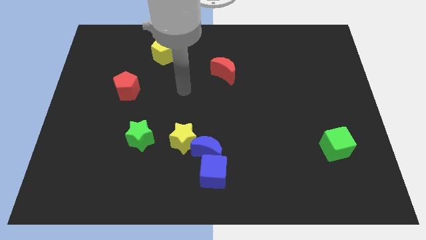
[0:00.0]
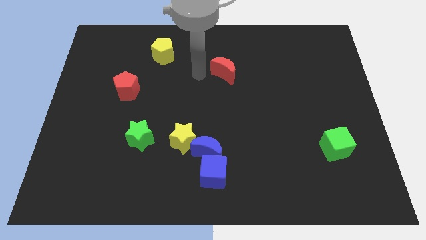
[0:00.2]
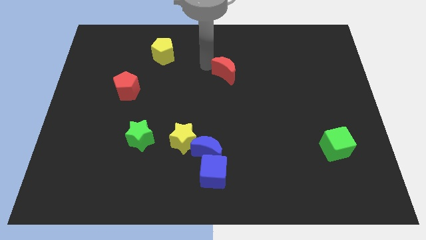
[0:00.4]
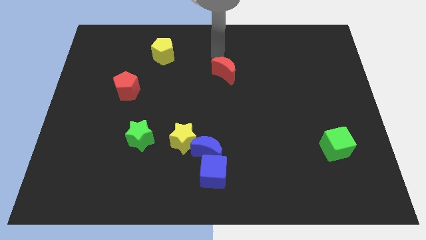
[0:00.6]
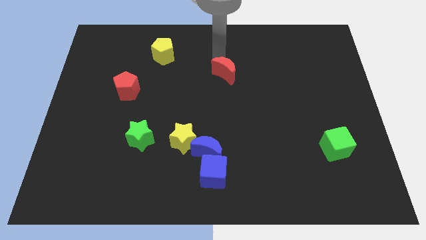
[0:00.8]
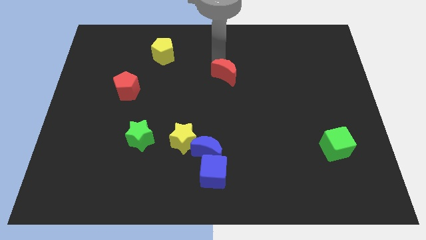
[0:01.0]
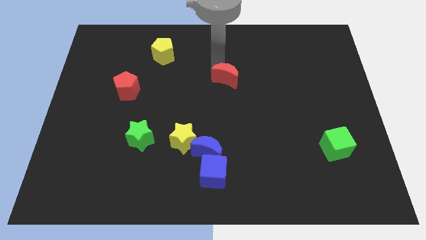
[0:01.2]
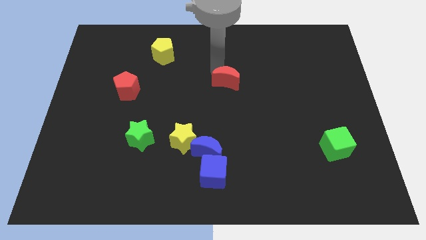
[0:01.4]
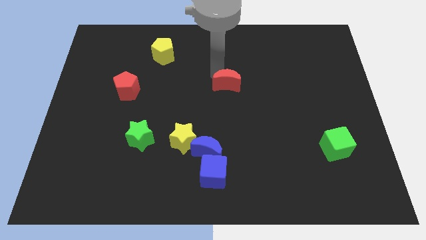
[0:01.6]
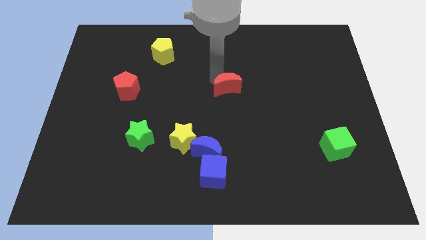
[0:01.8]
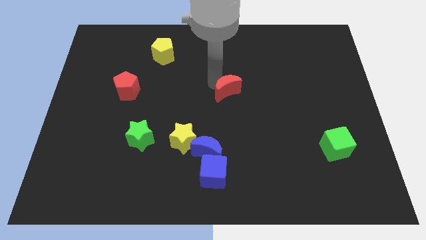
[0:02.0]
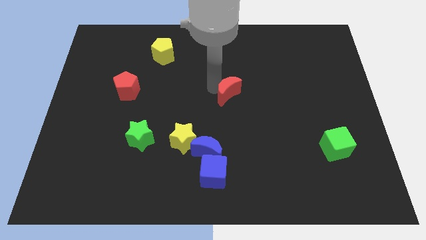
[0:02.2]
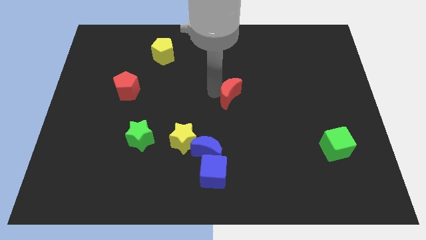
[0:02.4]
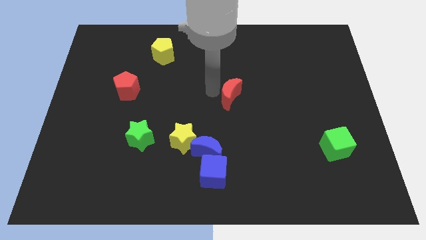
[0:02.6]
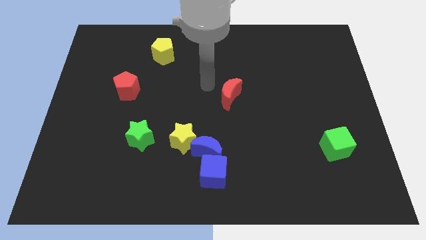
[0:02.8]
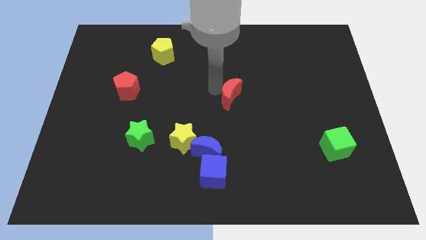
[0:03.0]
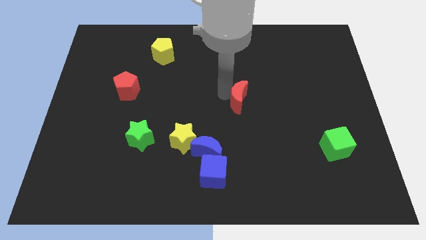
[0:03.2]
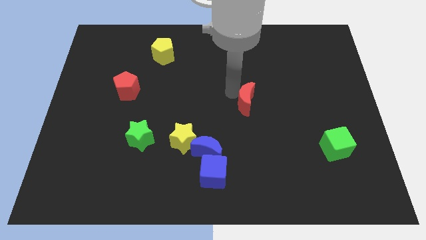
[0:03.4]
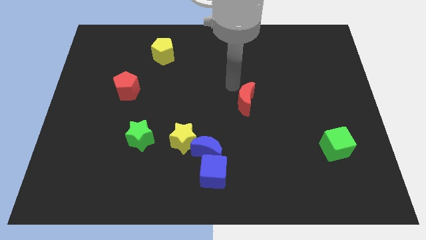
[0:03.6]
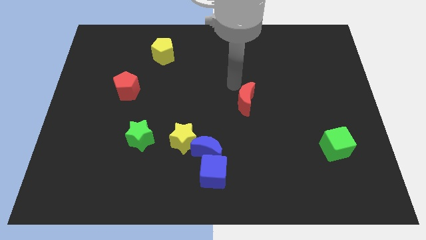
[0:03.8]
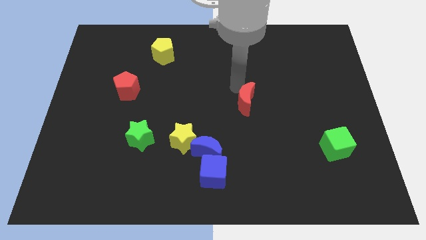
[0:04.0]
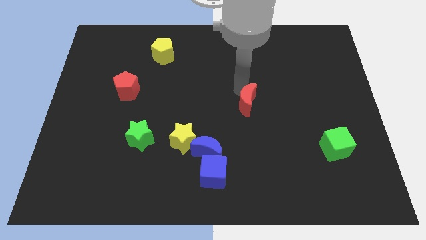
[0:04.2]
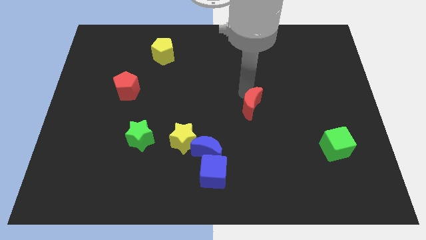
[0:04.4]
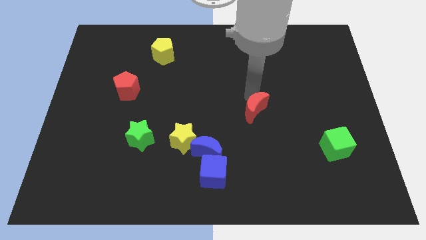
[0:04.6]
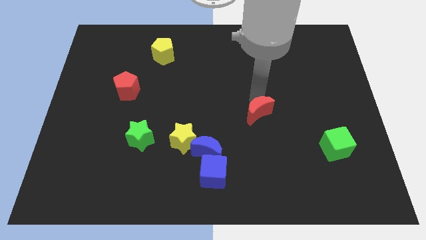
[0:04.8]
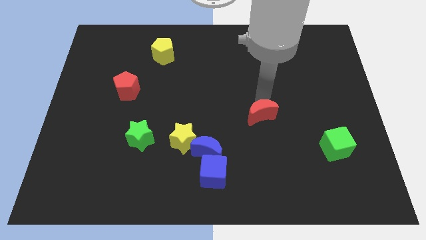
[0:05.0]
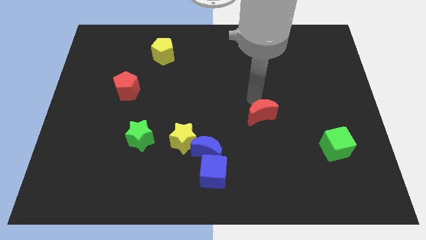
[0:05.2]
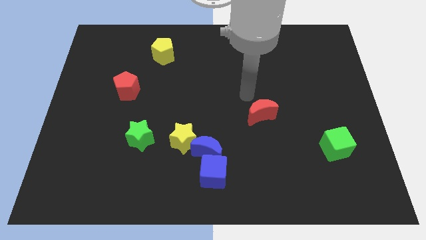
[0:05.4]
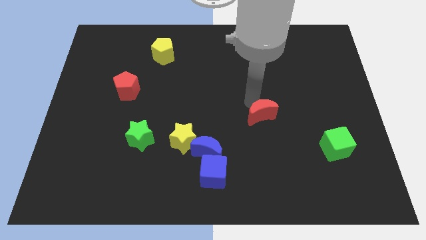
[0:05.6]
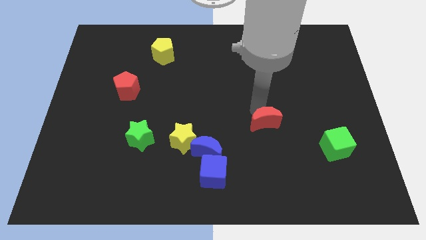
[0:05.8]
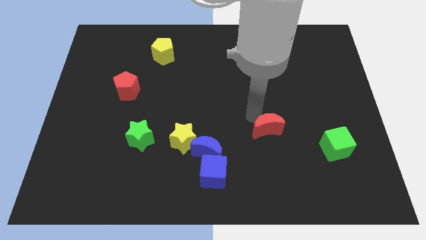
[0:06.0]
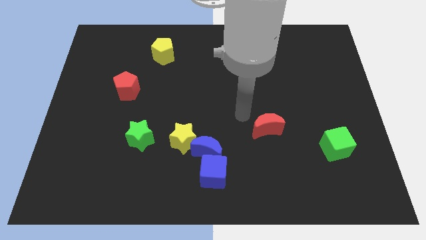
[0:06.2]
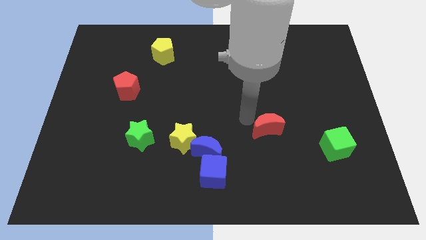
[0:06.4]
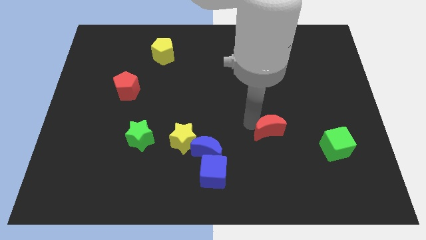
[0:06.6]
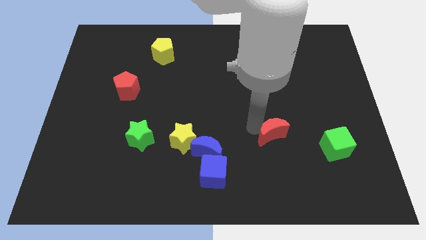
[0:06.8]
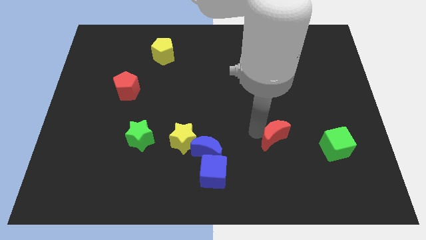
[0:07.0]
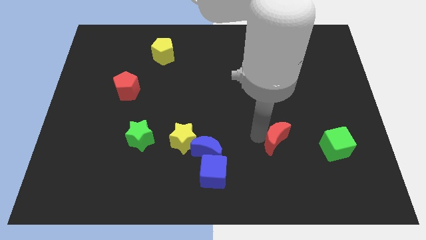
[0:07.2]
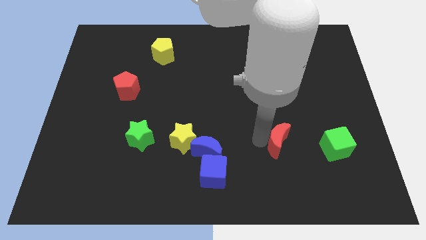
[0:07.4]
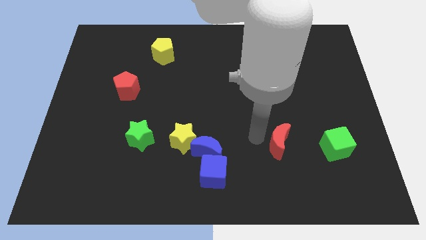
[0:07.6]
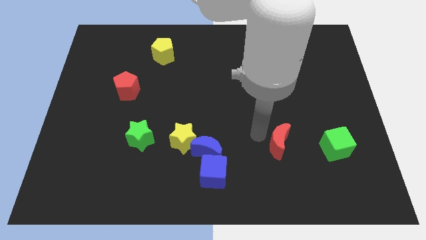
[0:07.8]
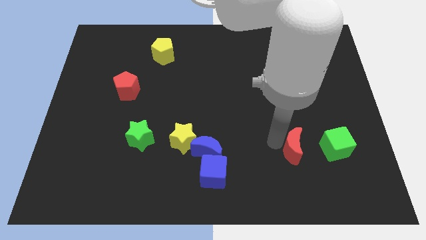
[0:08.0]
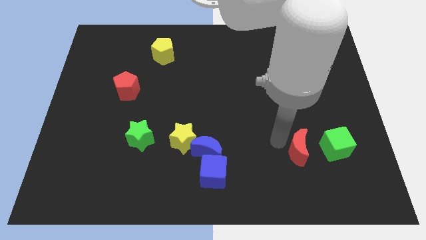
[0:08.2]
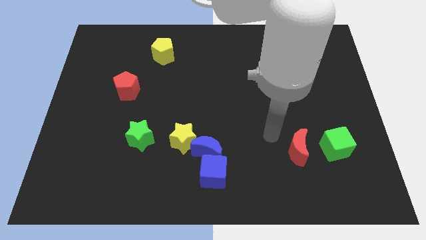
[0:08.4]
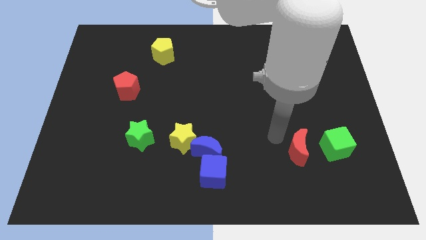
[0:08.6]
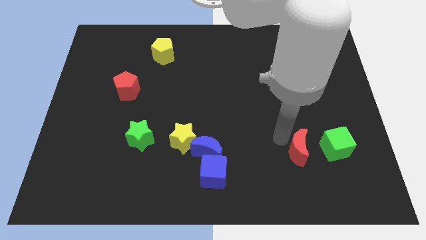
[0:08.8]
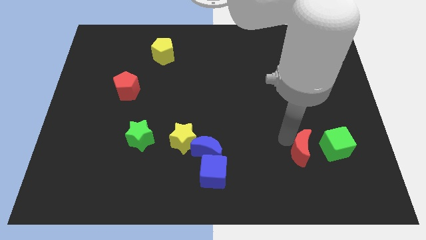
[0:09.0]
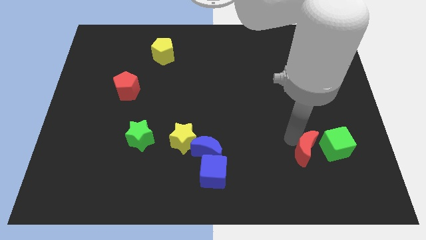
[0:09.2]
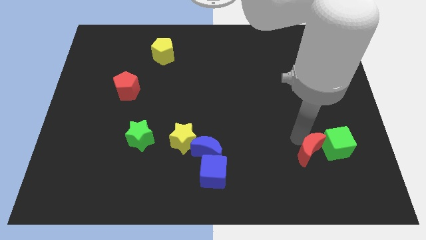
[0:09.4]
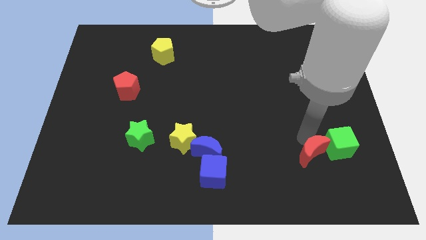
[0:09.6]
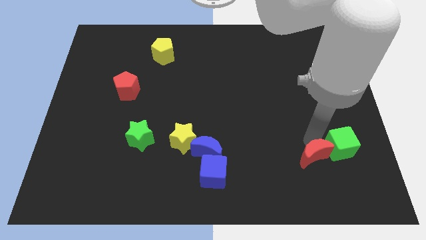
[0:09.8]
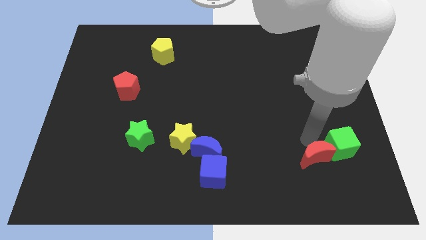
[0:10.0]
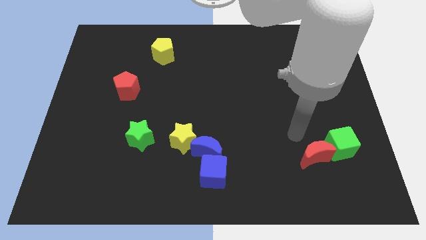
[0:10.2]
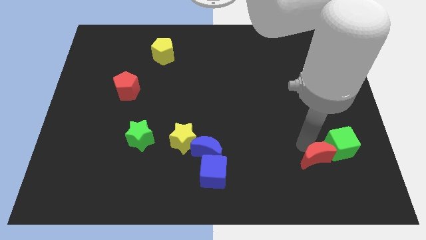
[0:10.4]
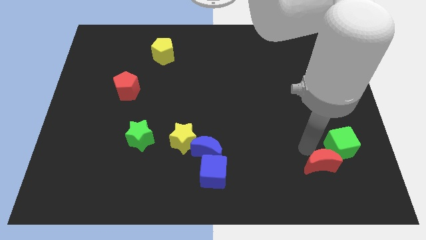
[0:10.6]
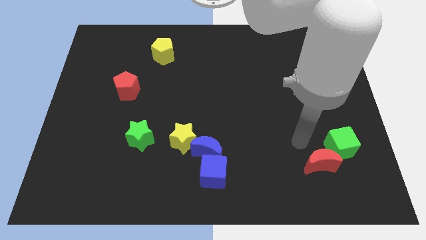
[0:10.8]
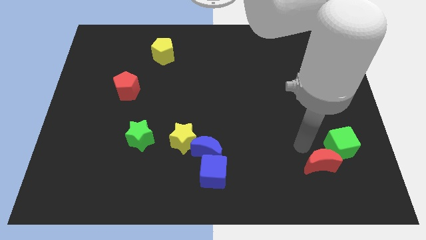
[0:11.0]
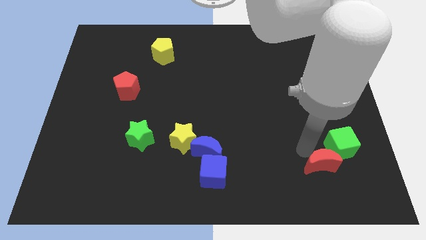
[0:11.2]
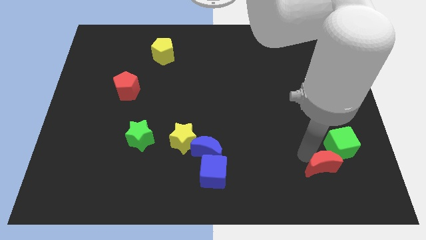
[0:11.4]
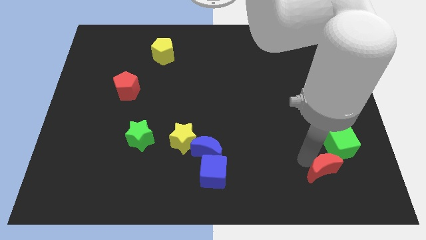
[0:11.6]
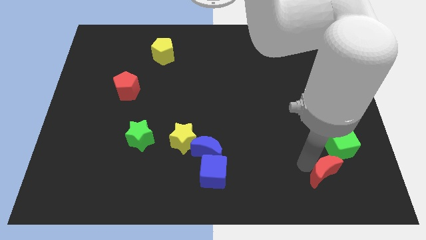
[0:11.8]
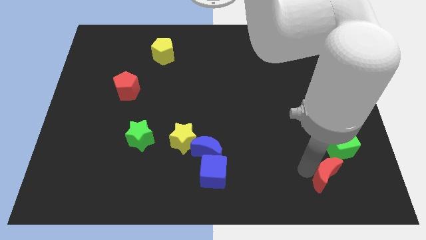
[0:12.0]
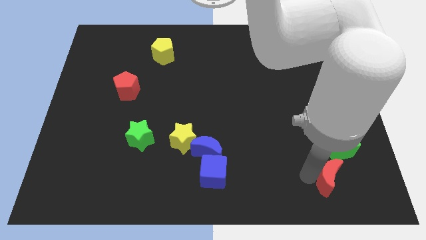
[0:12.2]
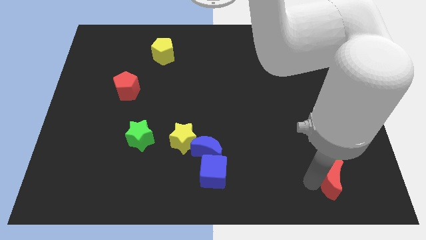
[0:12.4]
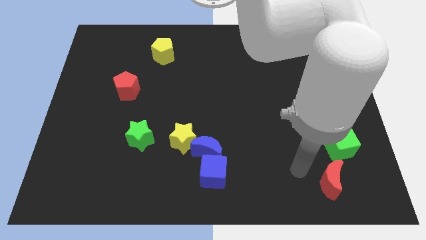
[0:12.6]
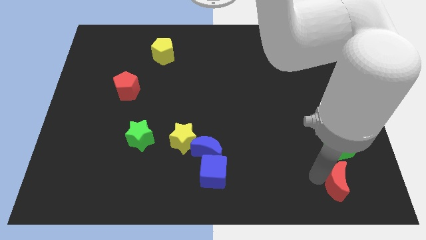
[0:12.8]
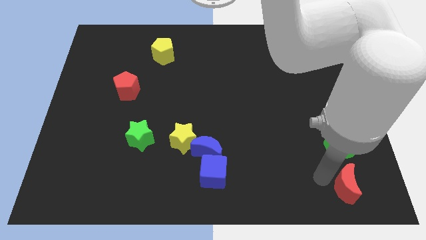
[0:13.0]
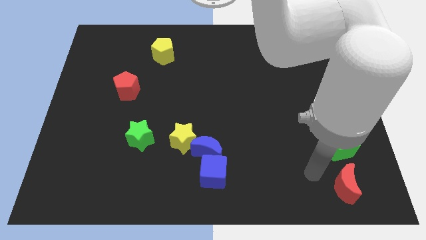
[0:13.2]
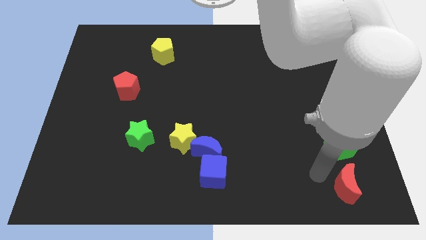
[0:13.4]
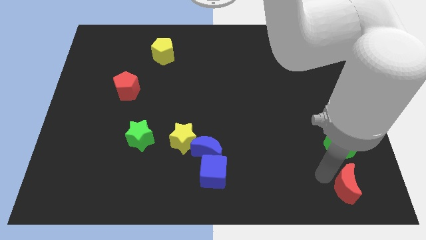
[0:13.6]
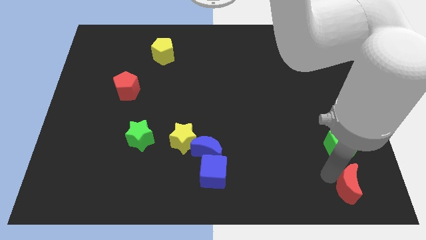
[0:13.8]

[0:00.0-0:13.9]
move the red moon to the bottom right of the board
